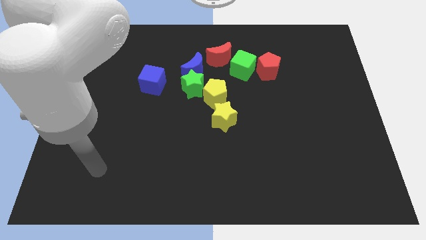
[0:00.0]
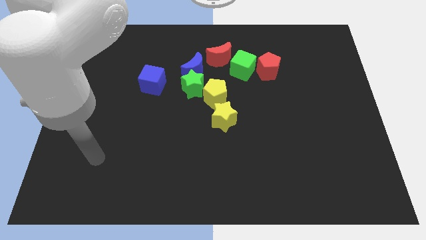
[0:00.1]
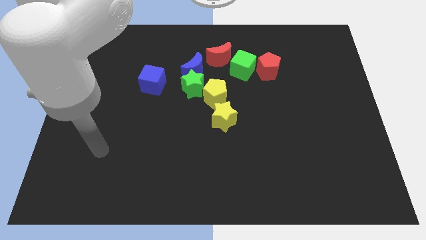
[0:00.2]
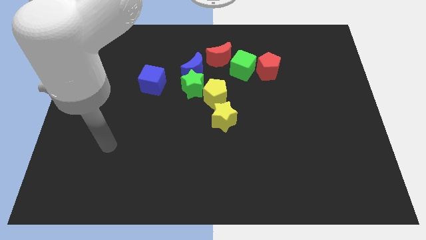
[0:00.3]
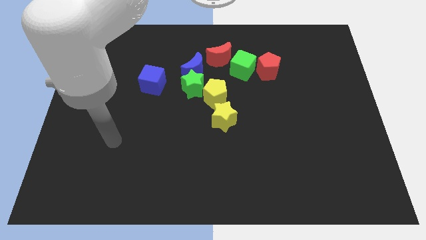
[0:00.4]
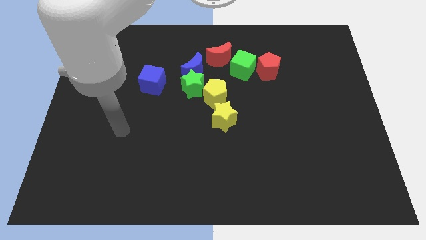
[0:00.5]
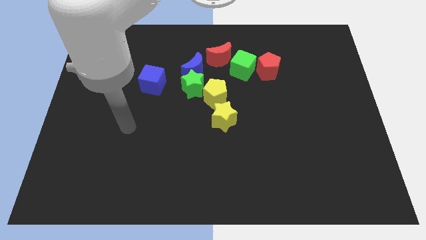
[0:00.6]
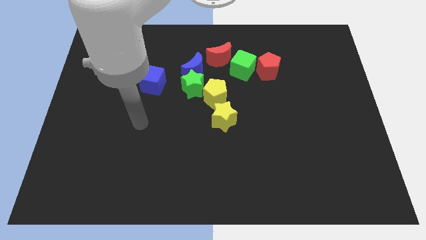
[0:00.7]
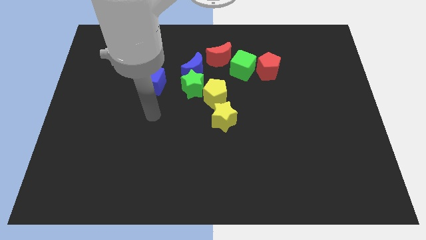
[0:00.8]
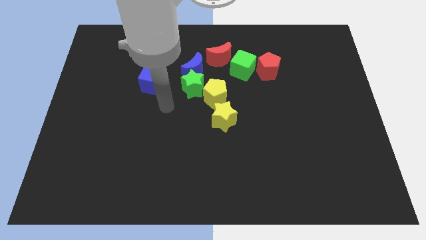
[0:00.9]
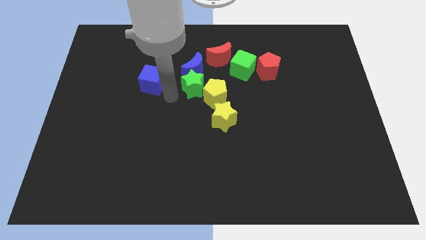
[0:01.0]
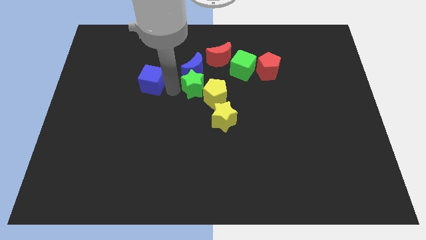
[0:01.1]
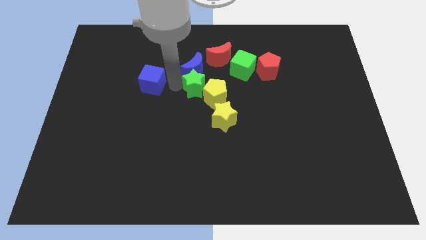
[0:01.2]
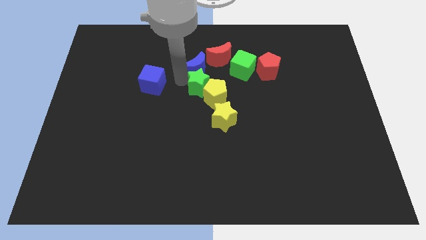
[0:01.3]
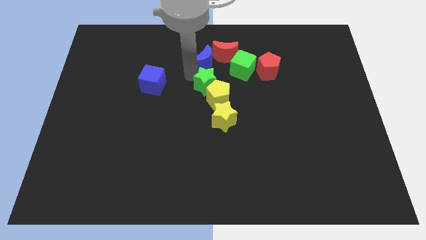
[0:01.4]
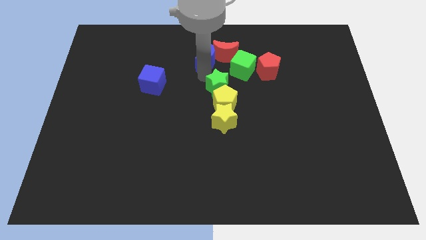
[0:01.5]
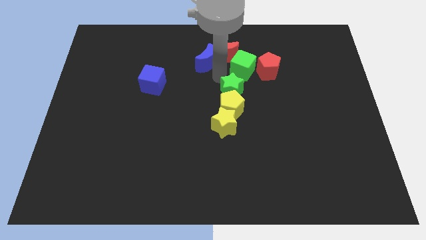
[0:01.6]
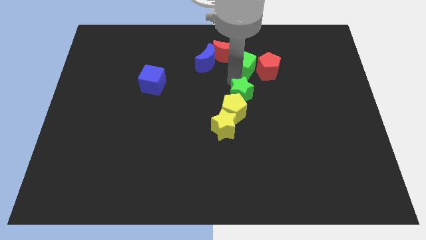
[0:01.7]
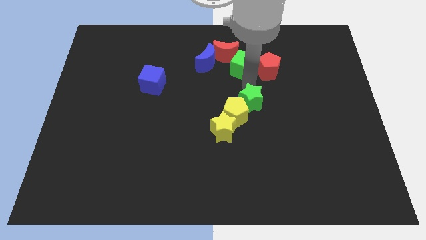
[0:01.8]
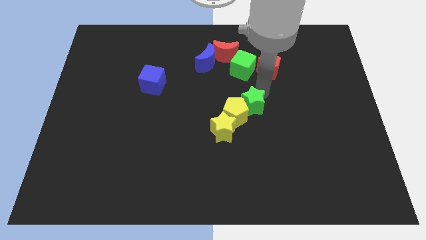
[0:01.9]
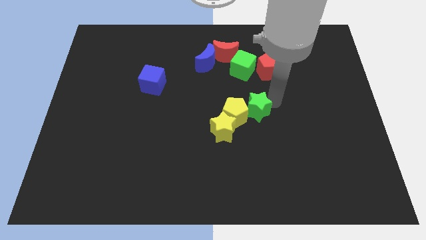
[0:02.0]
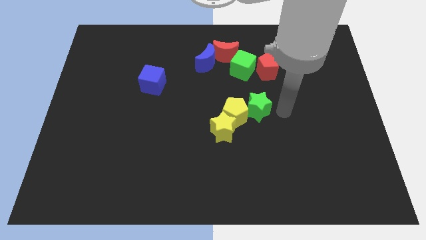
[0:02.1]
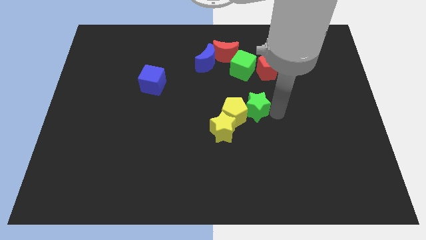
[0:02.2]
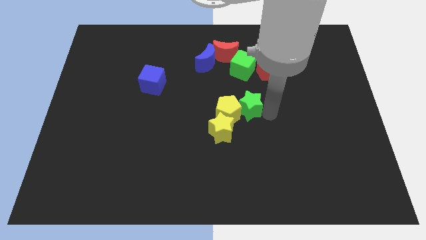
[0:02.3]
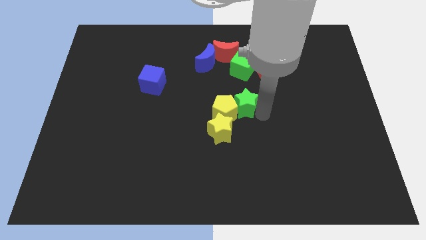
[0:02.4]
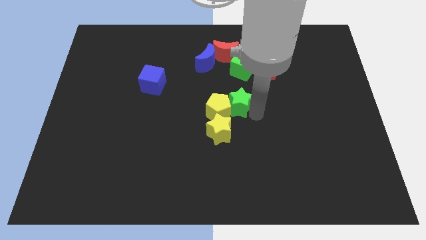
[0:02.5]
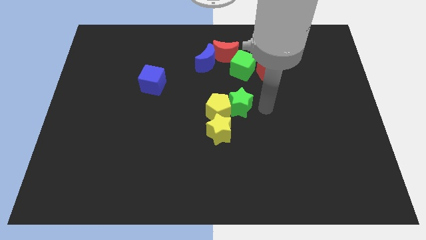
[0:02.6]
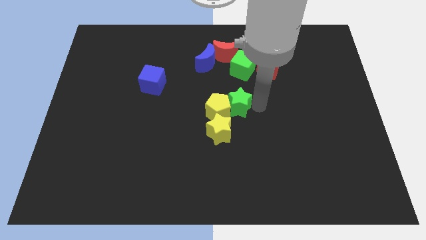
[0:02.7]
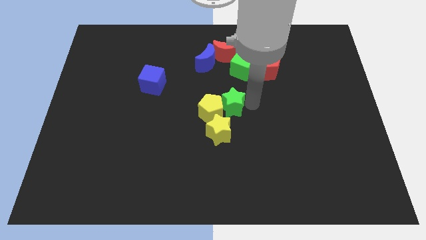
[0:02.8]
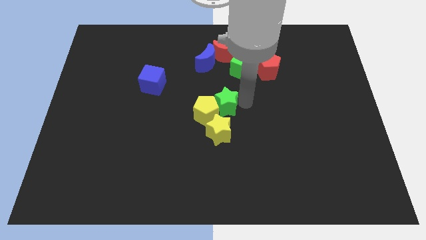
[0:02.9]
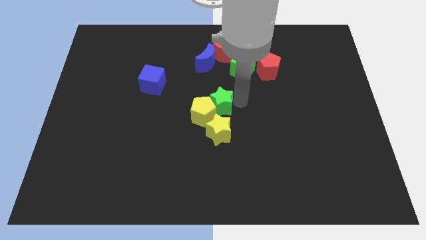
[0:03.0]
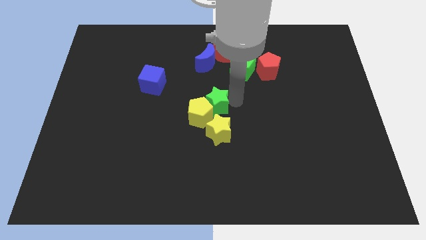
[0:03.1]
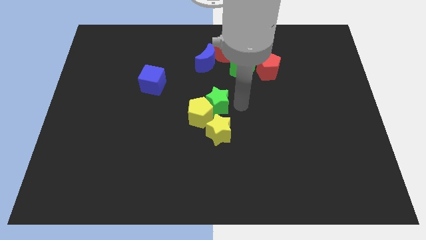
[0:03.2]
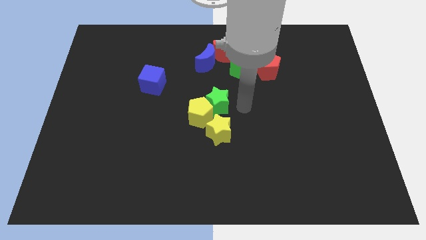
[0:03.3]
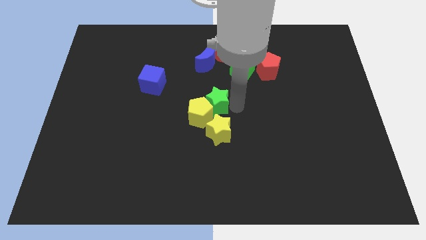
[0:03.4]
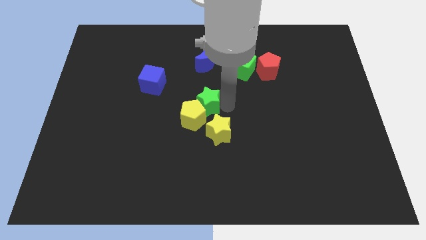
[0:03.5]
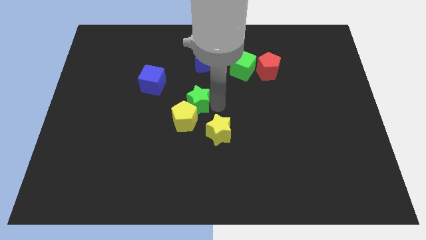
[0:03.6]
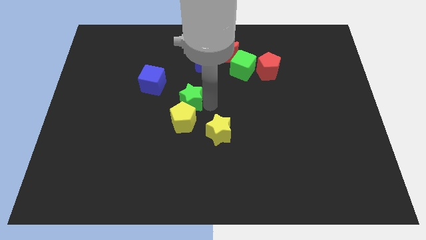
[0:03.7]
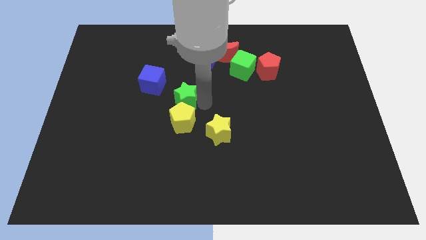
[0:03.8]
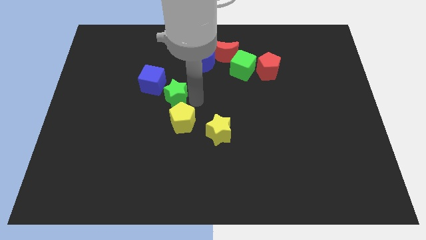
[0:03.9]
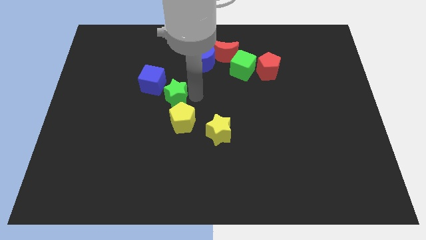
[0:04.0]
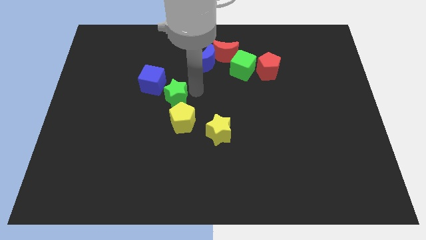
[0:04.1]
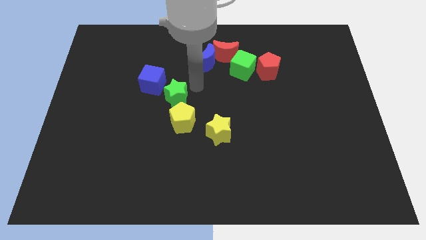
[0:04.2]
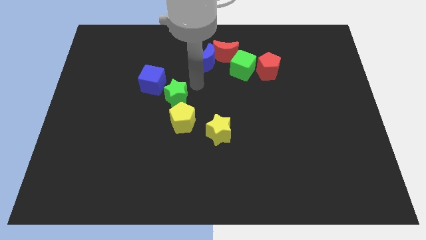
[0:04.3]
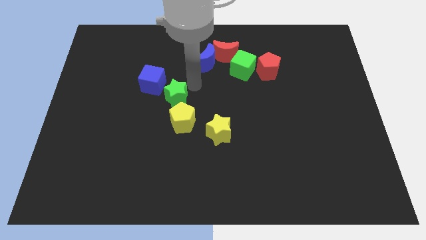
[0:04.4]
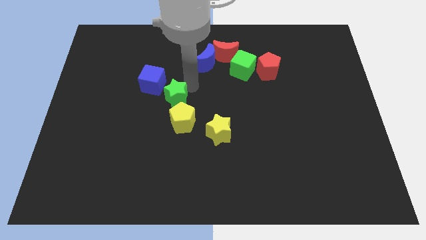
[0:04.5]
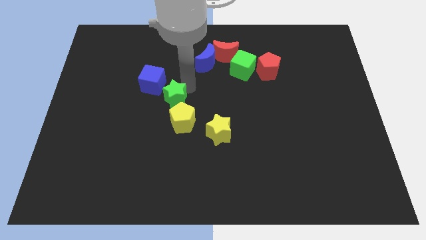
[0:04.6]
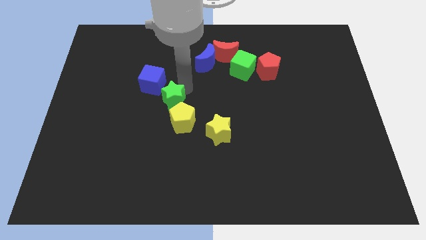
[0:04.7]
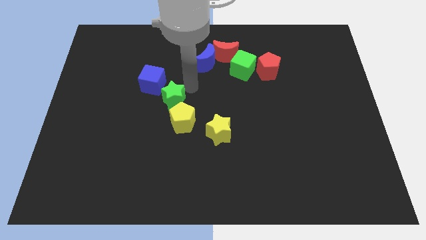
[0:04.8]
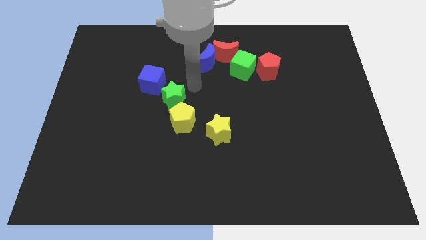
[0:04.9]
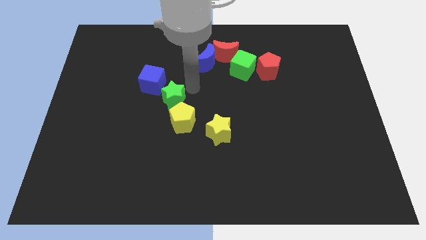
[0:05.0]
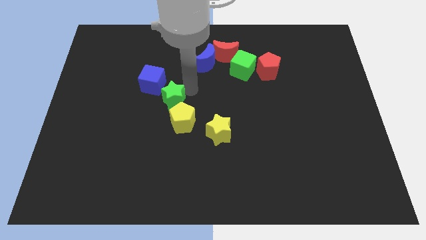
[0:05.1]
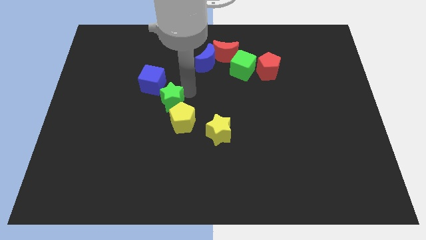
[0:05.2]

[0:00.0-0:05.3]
push the green star a bit down and left diagonally

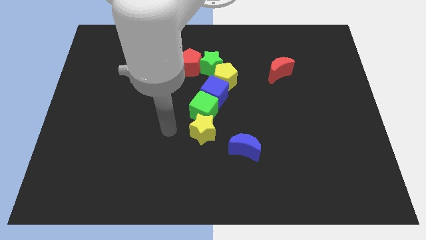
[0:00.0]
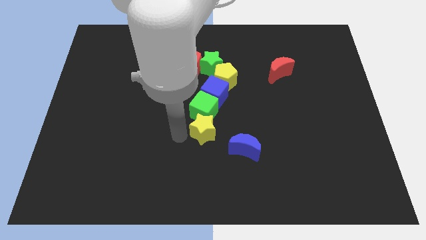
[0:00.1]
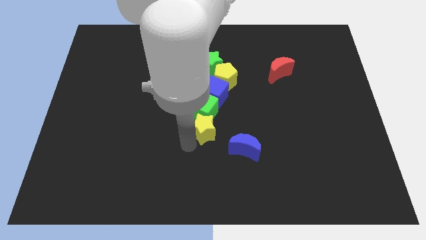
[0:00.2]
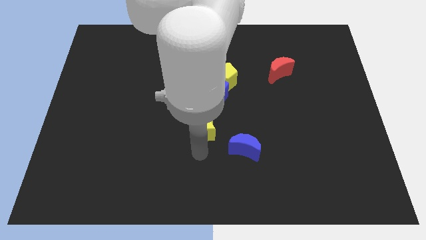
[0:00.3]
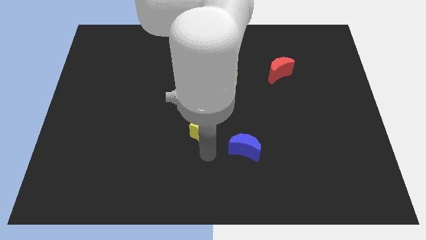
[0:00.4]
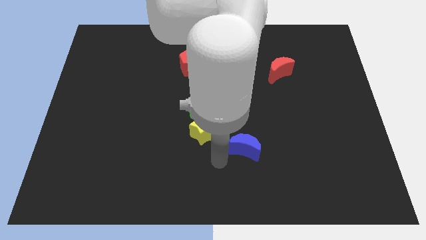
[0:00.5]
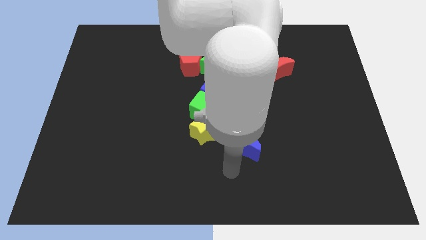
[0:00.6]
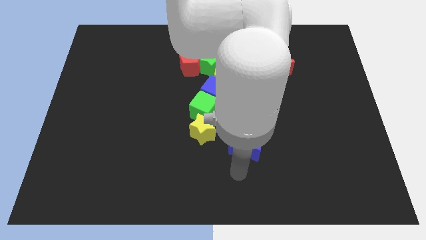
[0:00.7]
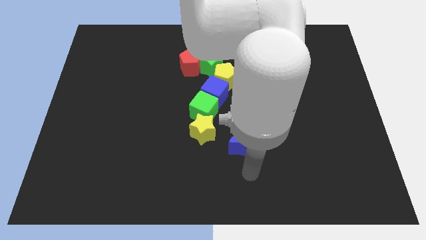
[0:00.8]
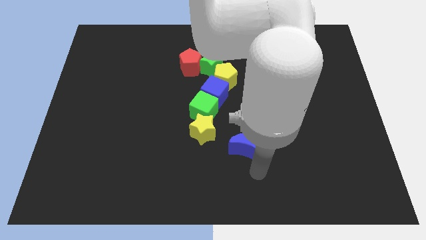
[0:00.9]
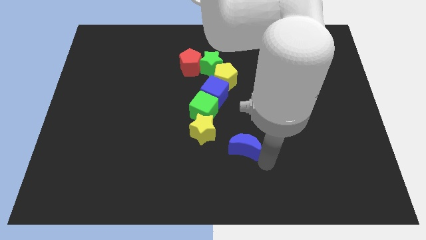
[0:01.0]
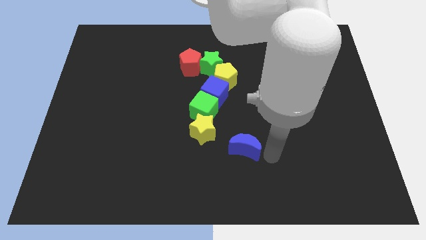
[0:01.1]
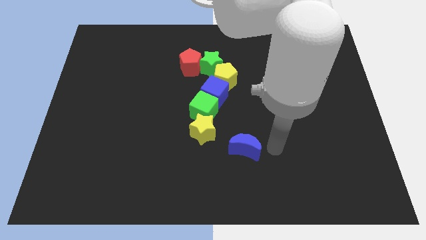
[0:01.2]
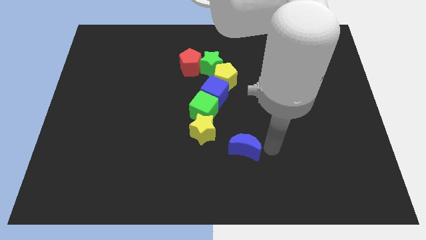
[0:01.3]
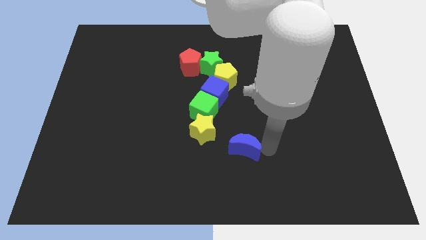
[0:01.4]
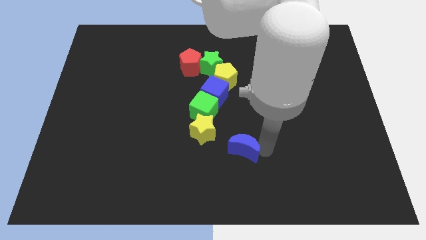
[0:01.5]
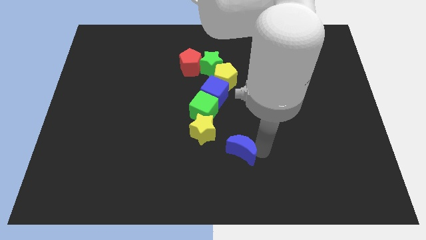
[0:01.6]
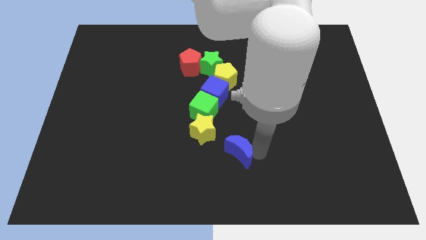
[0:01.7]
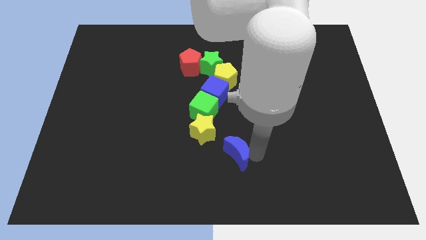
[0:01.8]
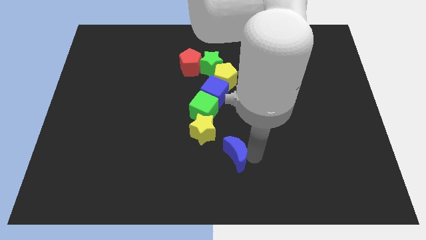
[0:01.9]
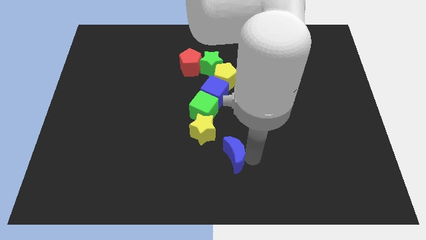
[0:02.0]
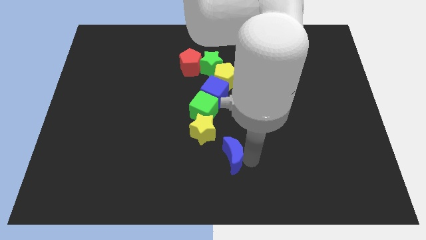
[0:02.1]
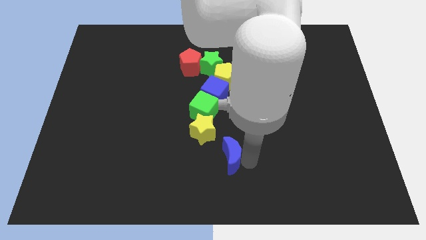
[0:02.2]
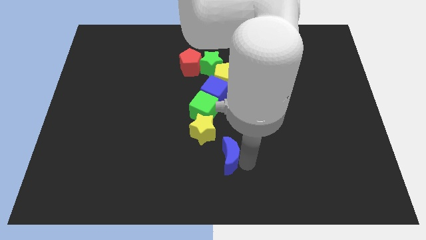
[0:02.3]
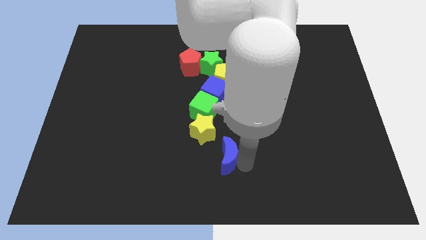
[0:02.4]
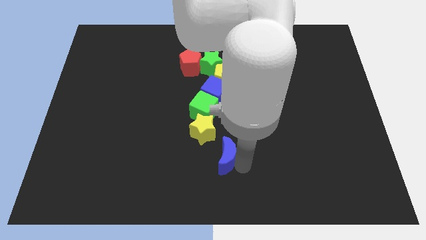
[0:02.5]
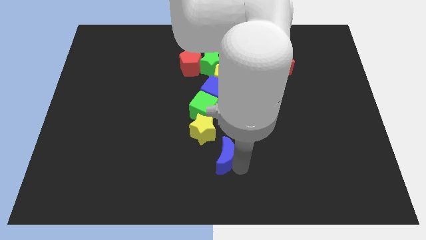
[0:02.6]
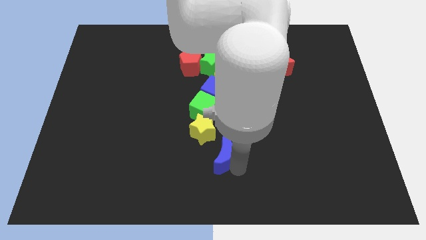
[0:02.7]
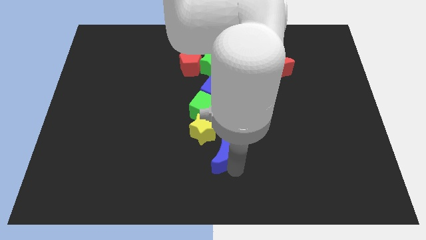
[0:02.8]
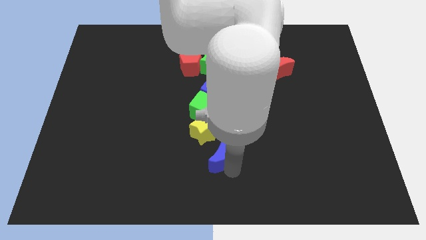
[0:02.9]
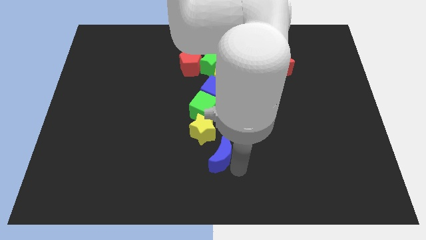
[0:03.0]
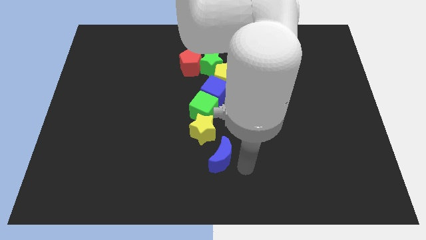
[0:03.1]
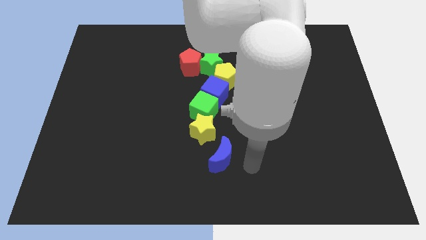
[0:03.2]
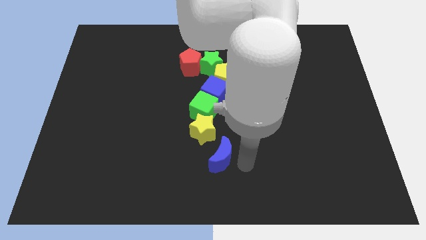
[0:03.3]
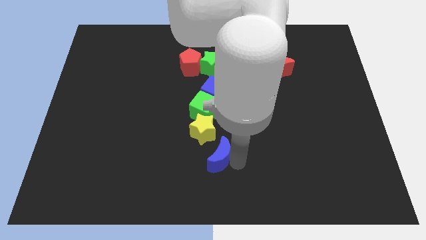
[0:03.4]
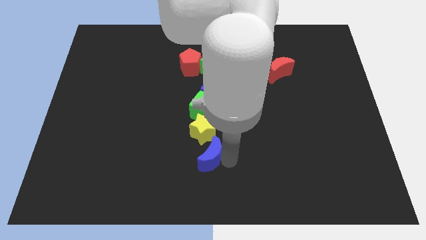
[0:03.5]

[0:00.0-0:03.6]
slightly slide the blue moon to the left
